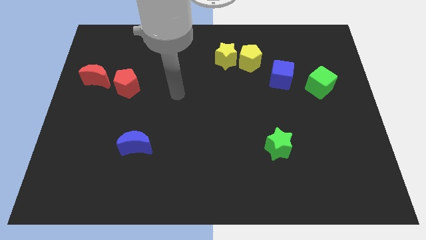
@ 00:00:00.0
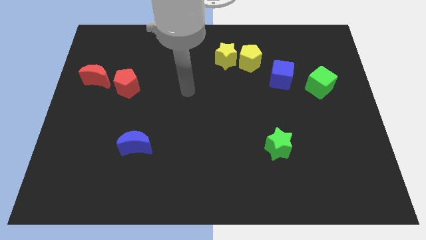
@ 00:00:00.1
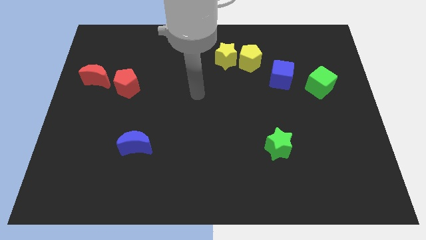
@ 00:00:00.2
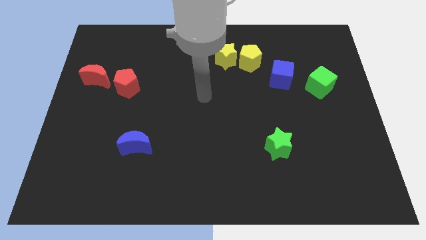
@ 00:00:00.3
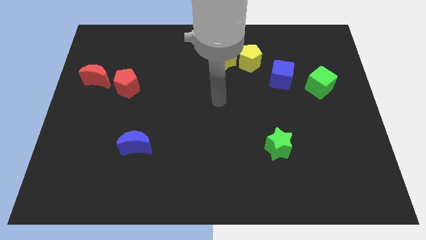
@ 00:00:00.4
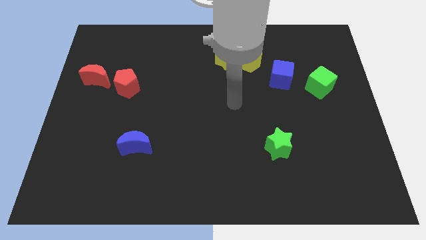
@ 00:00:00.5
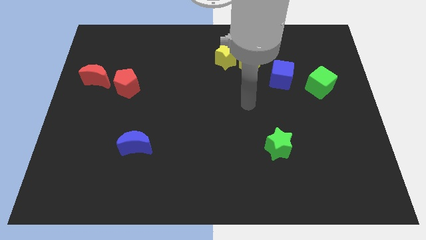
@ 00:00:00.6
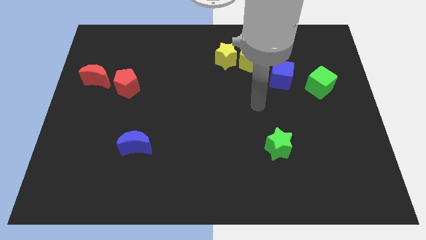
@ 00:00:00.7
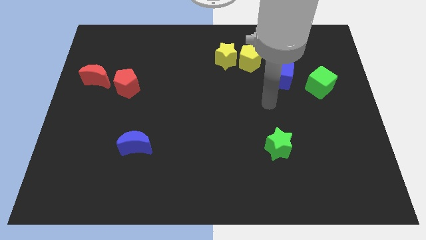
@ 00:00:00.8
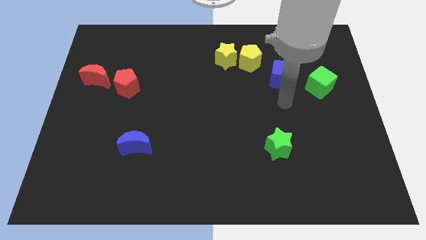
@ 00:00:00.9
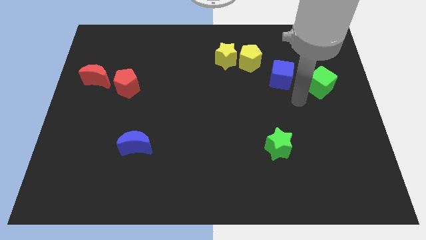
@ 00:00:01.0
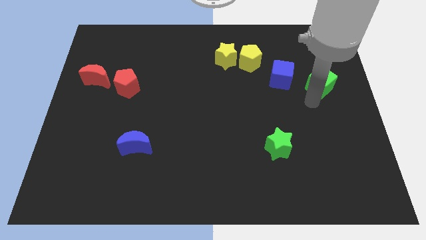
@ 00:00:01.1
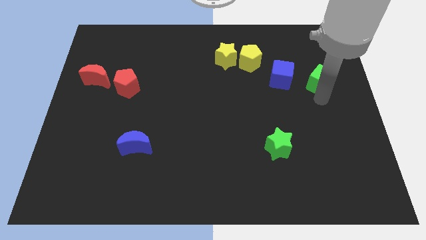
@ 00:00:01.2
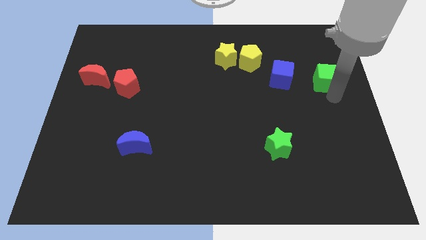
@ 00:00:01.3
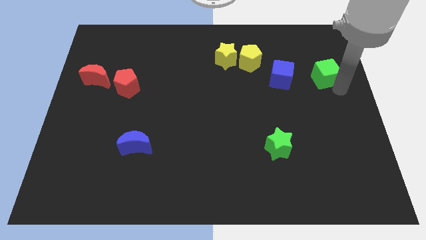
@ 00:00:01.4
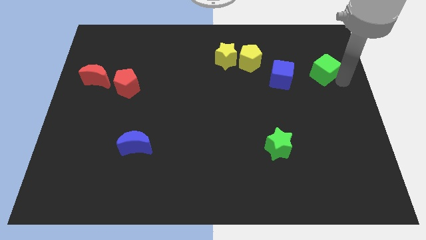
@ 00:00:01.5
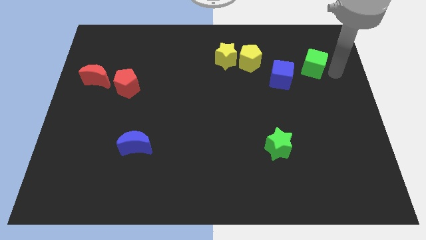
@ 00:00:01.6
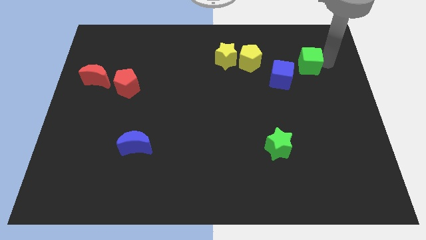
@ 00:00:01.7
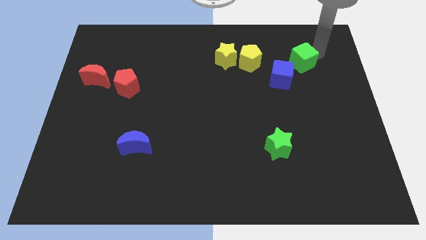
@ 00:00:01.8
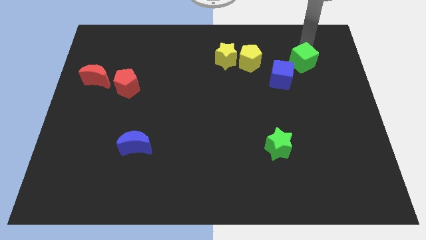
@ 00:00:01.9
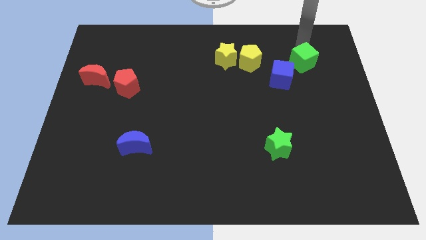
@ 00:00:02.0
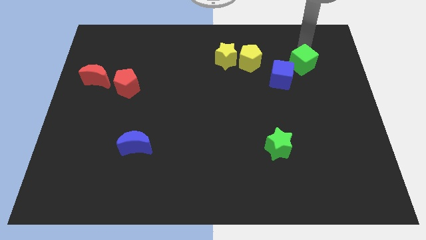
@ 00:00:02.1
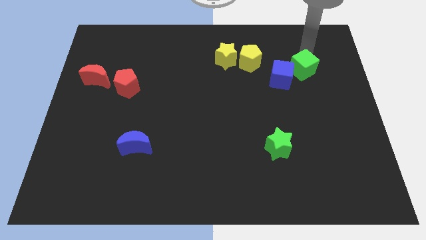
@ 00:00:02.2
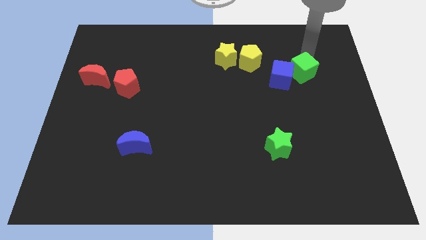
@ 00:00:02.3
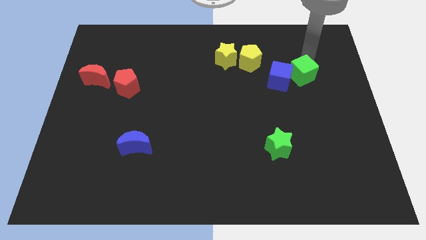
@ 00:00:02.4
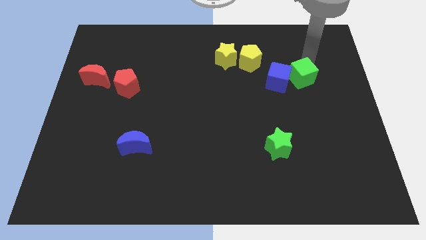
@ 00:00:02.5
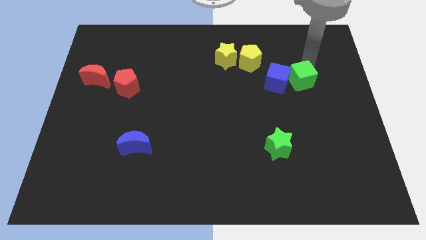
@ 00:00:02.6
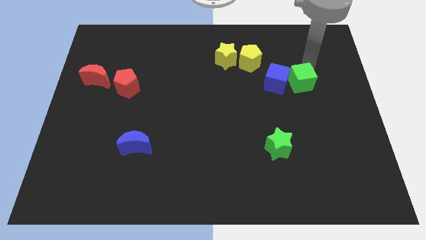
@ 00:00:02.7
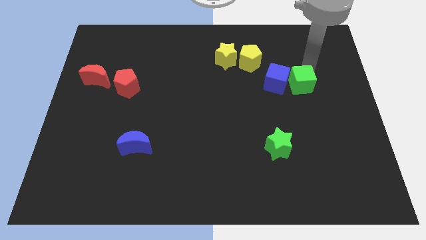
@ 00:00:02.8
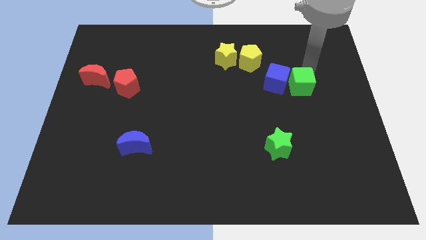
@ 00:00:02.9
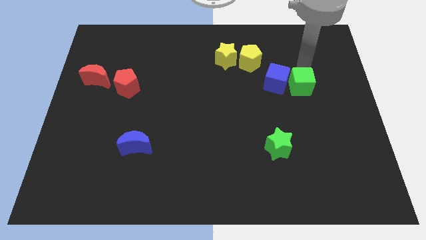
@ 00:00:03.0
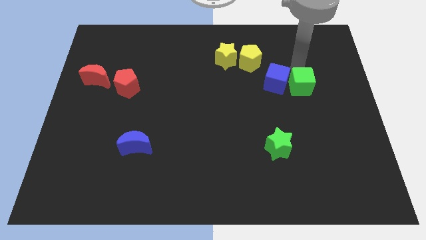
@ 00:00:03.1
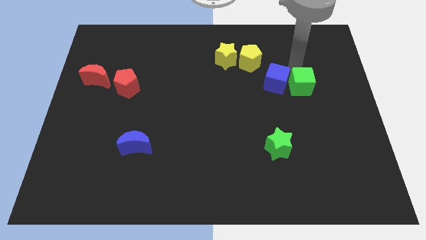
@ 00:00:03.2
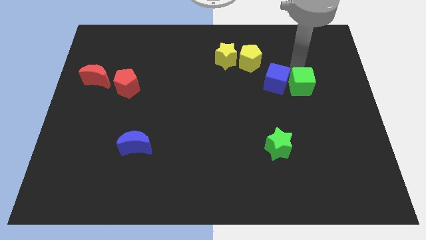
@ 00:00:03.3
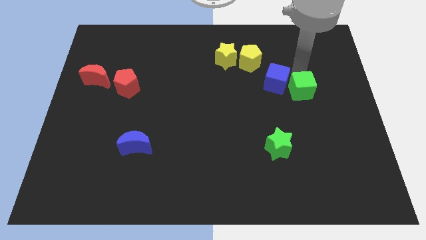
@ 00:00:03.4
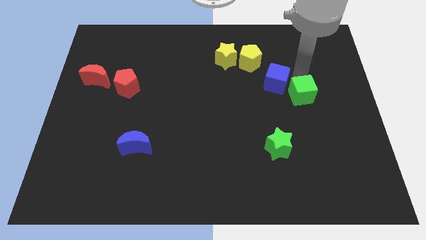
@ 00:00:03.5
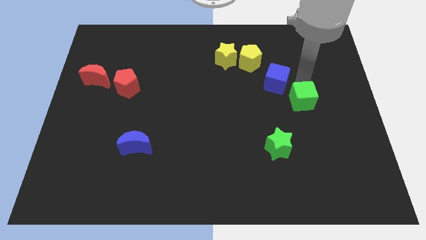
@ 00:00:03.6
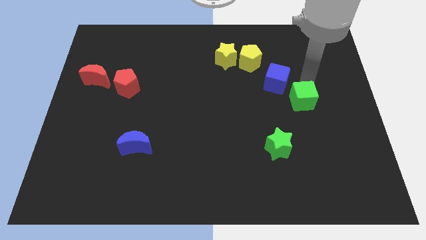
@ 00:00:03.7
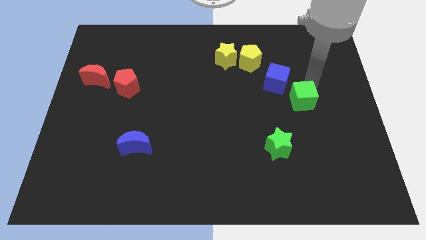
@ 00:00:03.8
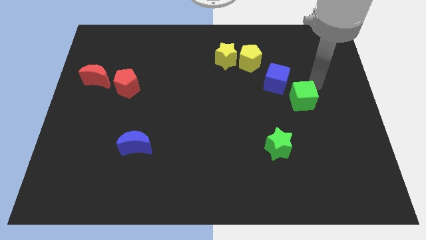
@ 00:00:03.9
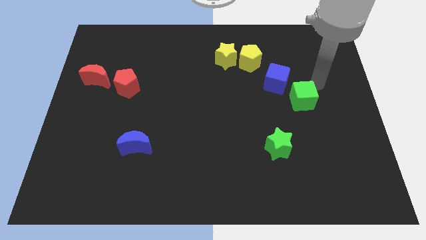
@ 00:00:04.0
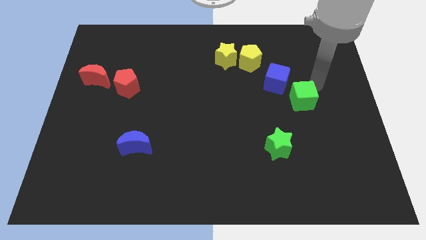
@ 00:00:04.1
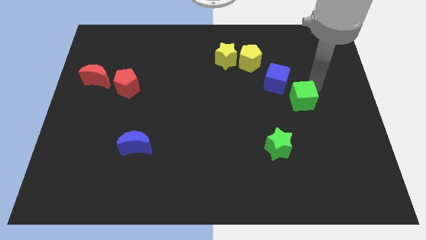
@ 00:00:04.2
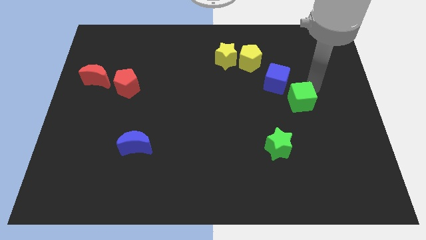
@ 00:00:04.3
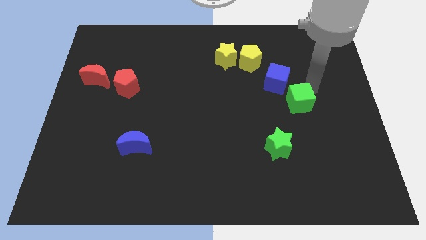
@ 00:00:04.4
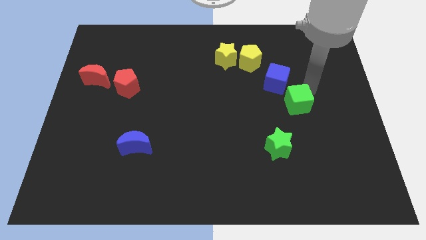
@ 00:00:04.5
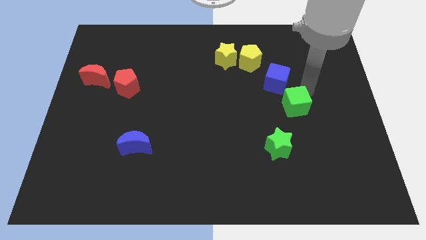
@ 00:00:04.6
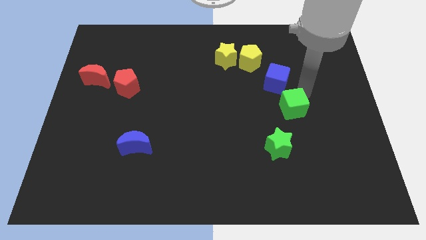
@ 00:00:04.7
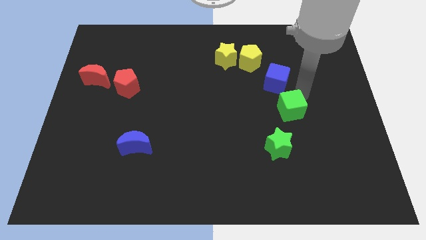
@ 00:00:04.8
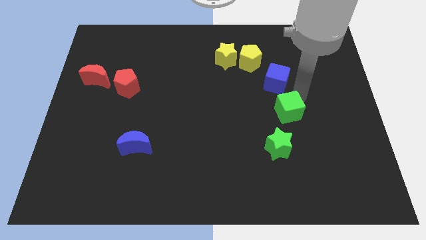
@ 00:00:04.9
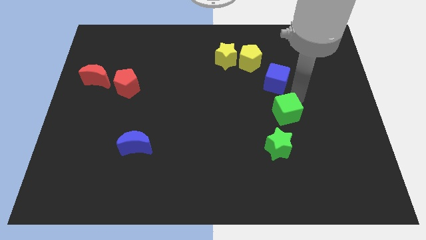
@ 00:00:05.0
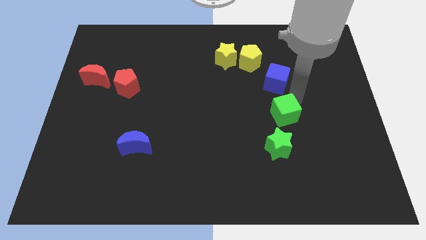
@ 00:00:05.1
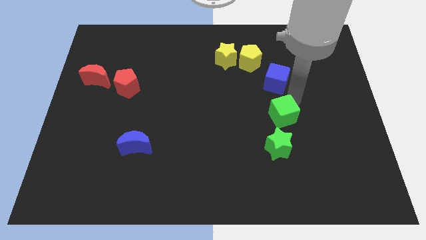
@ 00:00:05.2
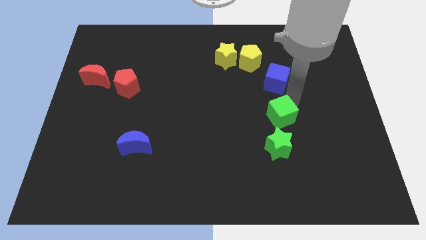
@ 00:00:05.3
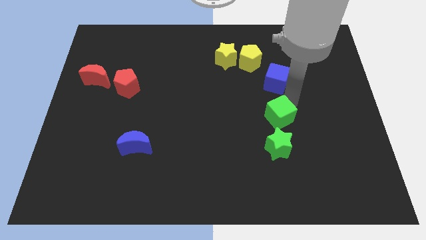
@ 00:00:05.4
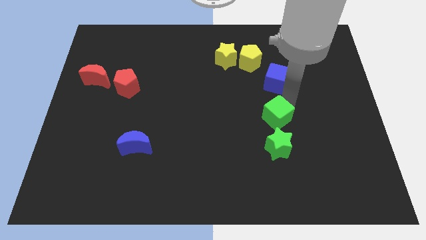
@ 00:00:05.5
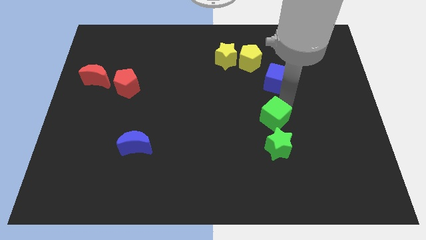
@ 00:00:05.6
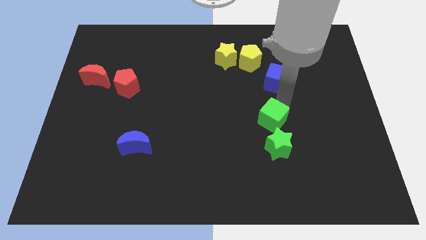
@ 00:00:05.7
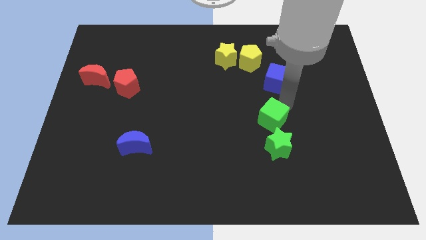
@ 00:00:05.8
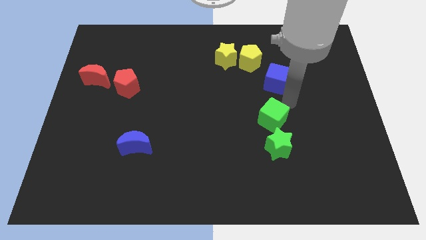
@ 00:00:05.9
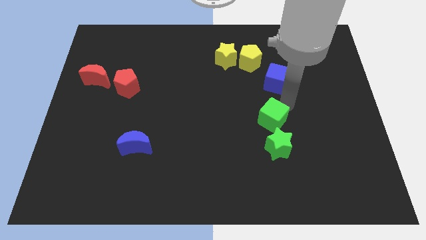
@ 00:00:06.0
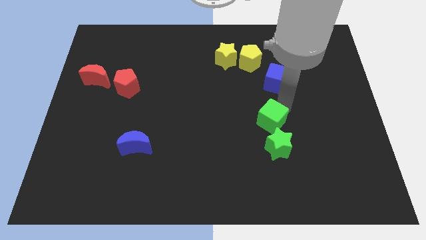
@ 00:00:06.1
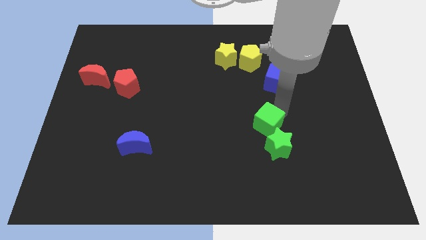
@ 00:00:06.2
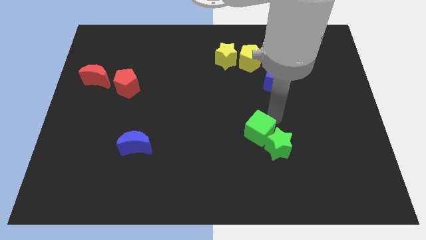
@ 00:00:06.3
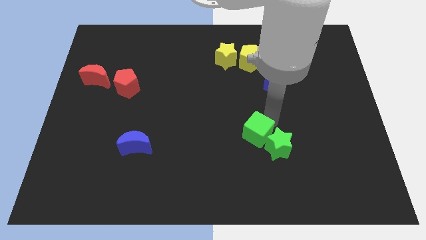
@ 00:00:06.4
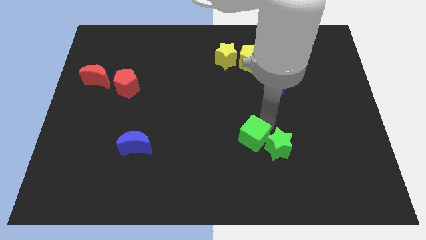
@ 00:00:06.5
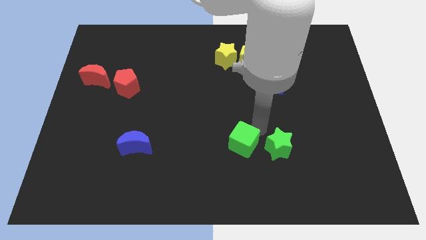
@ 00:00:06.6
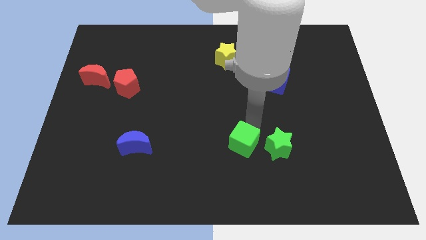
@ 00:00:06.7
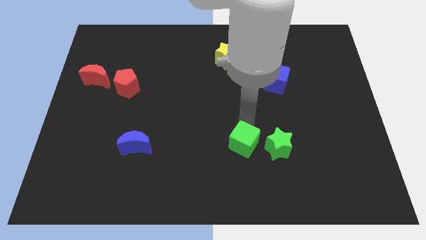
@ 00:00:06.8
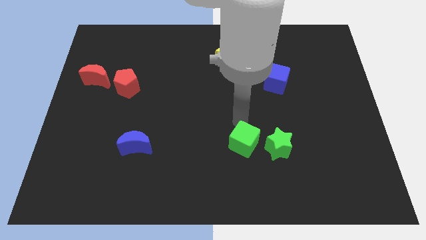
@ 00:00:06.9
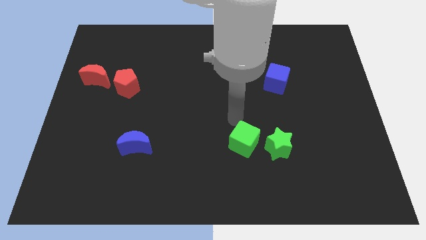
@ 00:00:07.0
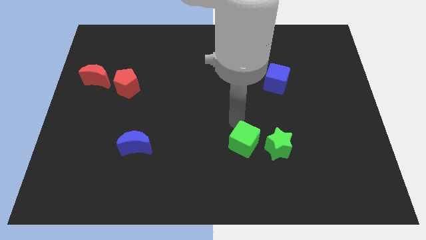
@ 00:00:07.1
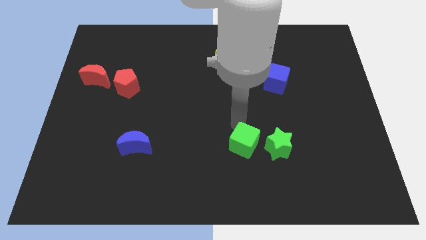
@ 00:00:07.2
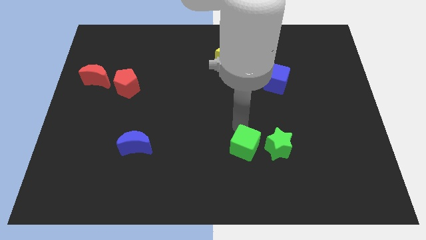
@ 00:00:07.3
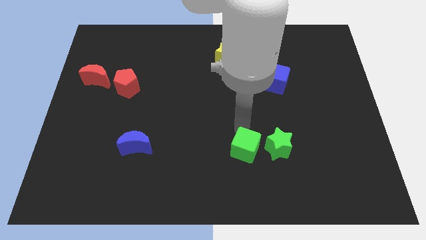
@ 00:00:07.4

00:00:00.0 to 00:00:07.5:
move the green cube diagonally down and to the left of the green star
